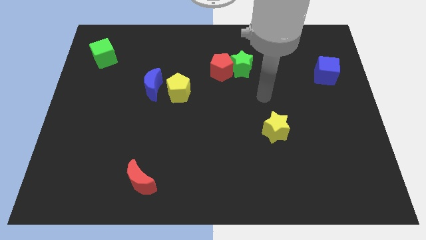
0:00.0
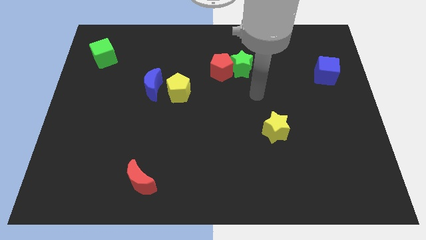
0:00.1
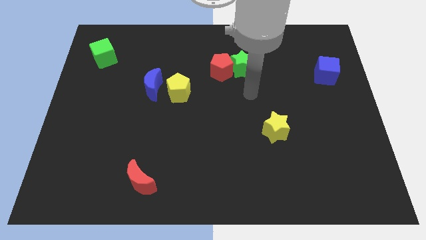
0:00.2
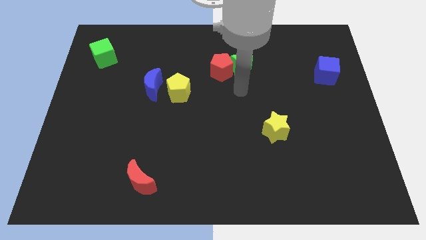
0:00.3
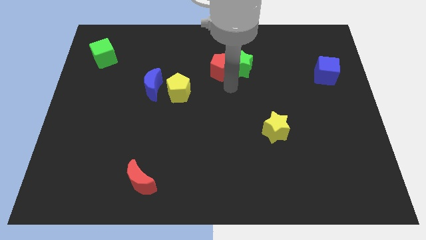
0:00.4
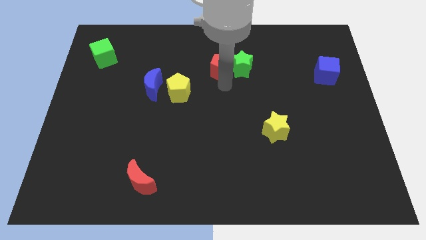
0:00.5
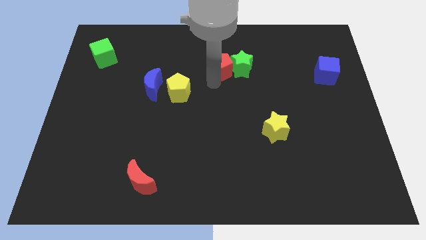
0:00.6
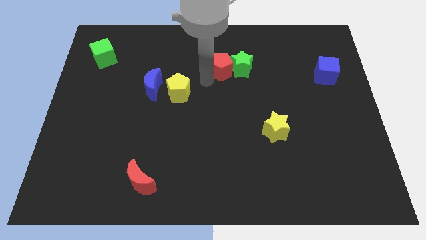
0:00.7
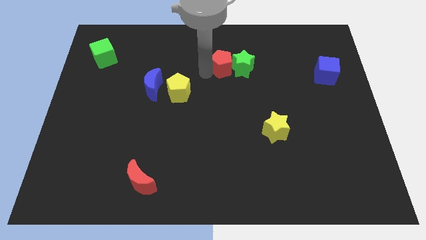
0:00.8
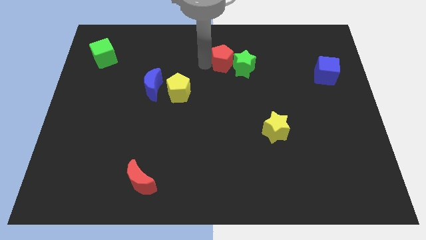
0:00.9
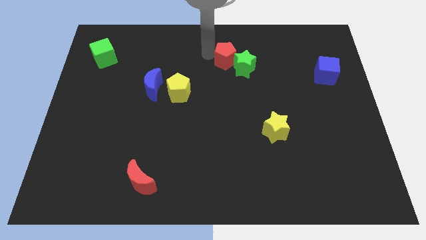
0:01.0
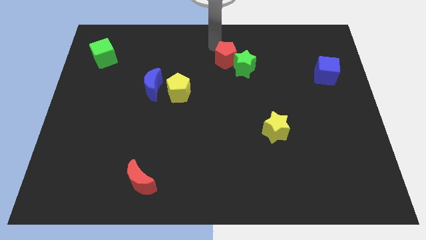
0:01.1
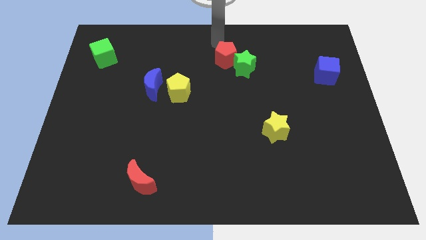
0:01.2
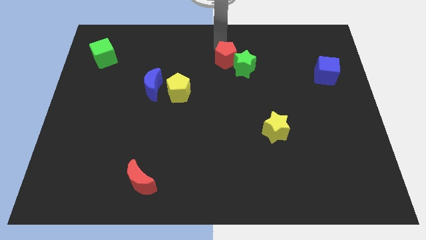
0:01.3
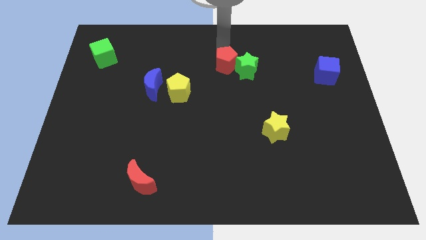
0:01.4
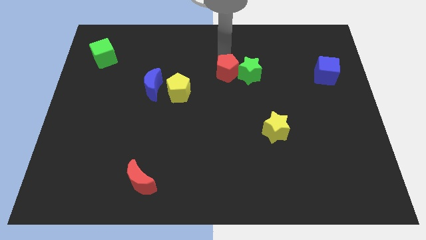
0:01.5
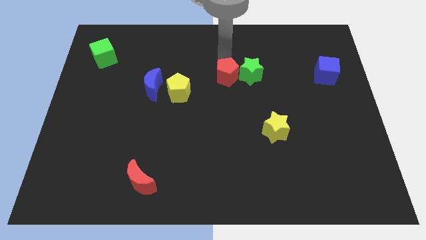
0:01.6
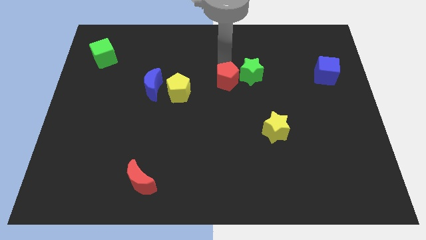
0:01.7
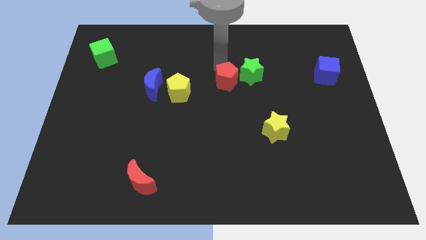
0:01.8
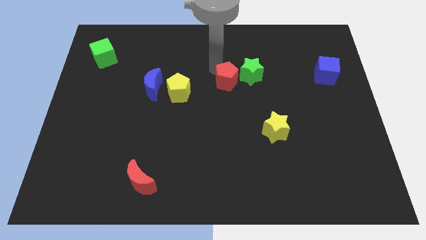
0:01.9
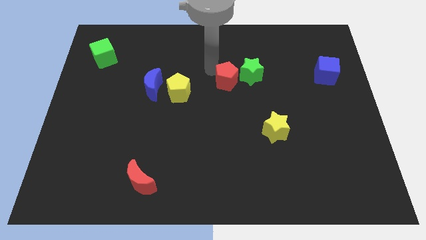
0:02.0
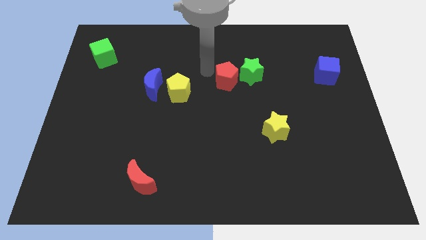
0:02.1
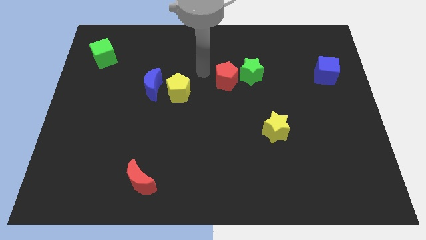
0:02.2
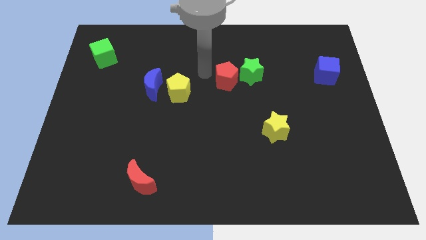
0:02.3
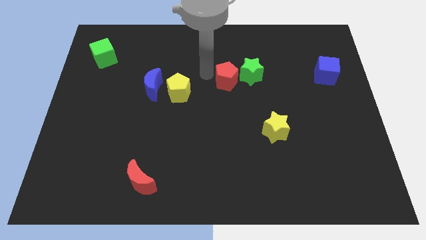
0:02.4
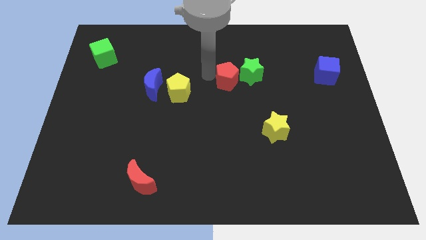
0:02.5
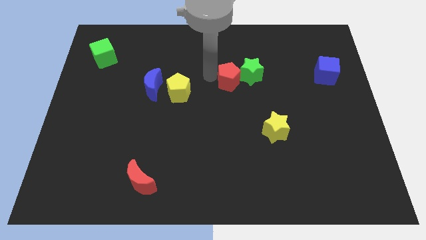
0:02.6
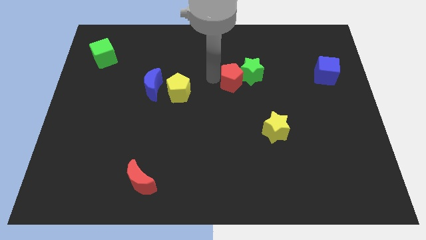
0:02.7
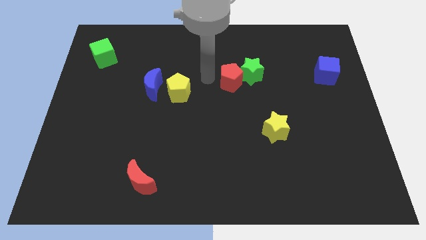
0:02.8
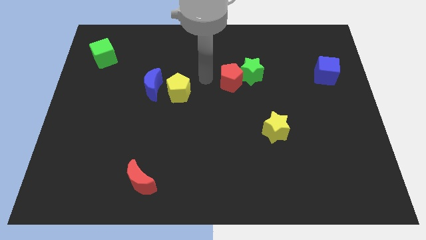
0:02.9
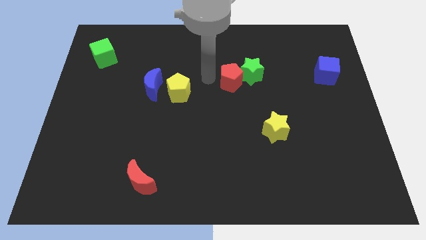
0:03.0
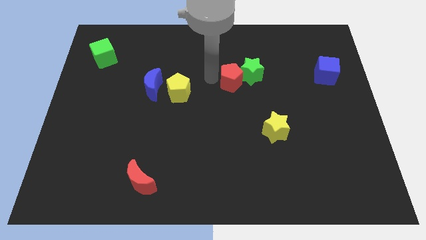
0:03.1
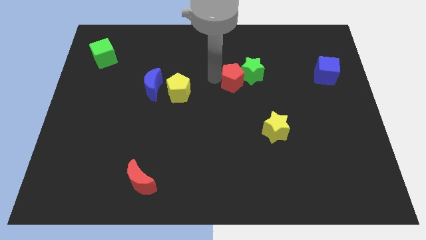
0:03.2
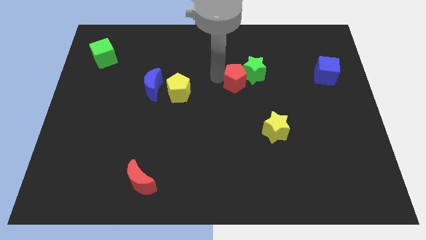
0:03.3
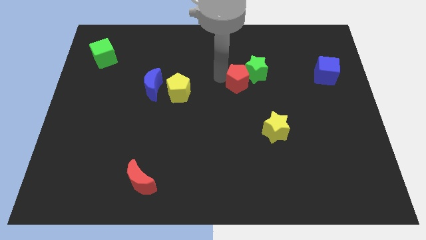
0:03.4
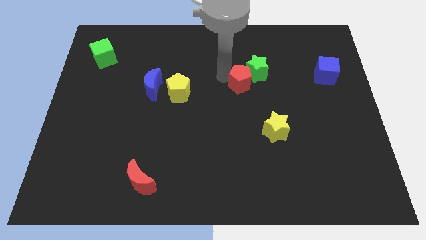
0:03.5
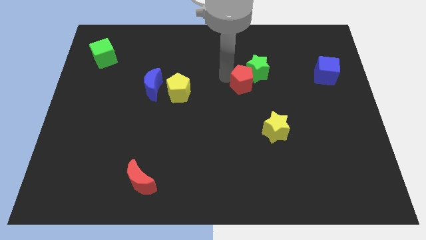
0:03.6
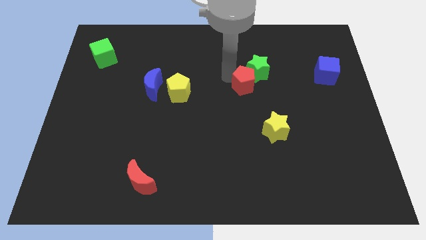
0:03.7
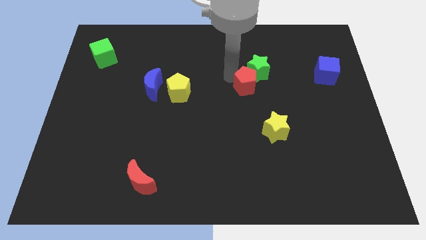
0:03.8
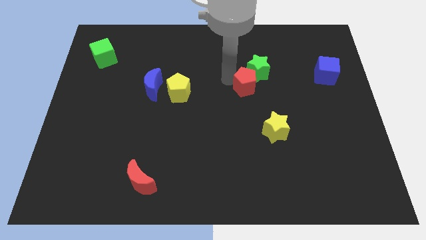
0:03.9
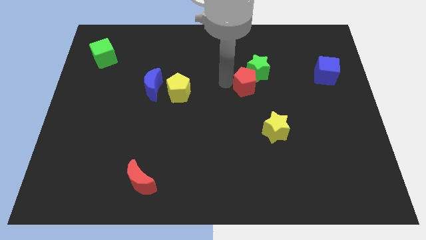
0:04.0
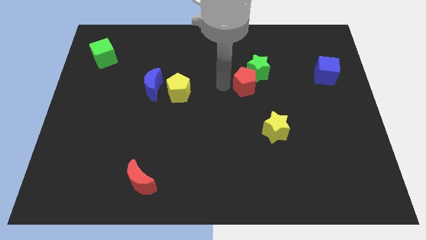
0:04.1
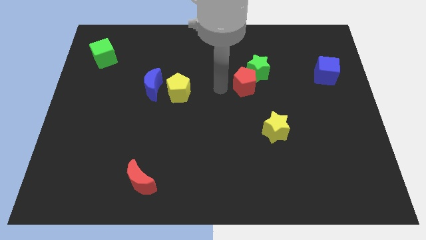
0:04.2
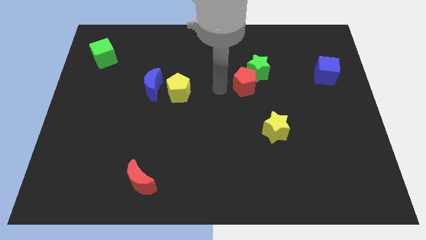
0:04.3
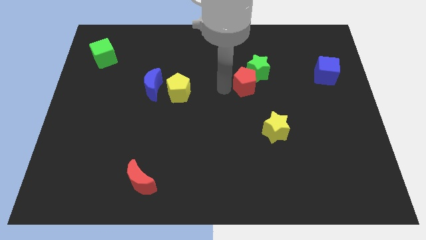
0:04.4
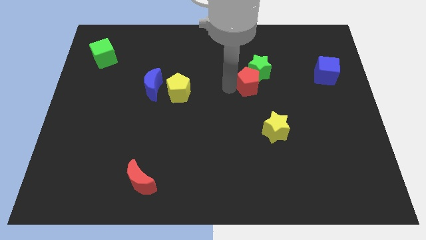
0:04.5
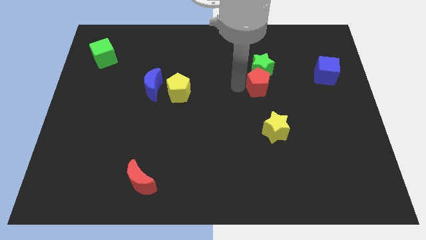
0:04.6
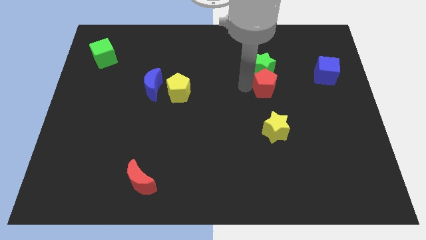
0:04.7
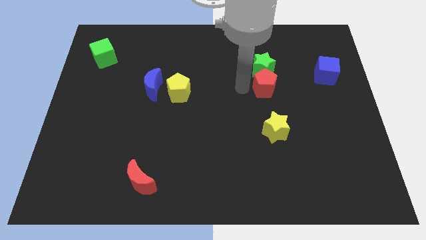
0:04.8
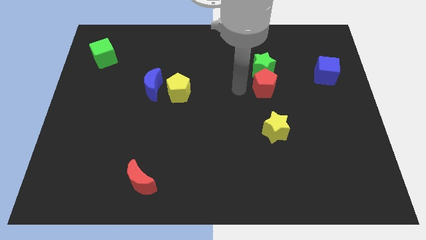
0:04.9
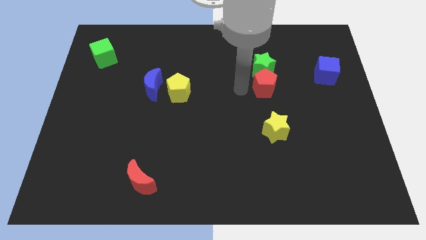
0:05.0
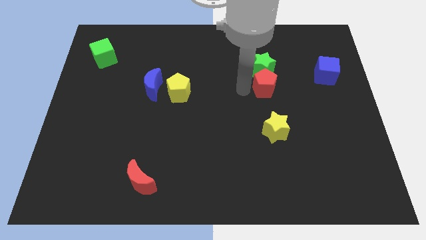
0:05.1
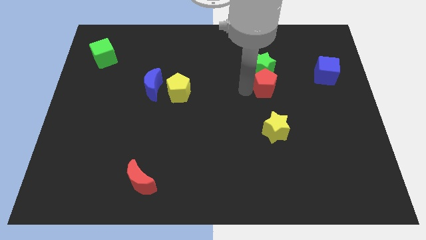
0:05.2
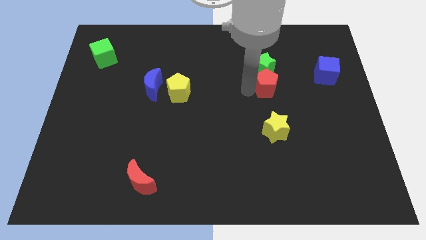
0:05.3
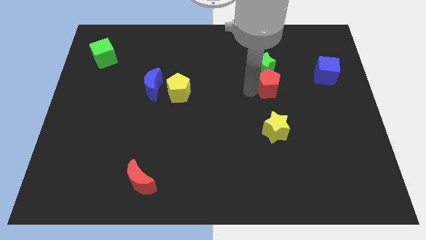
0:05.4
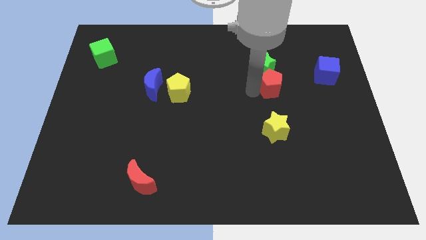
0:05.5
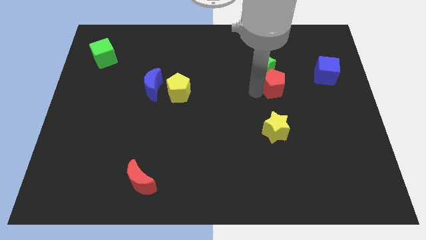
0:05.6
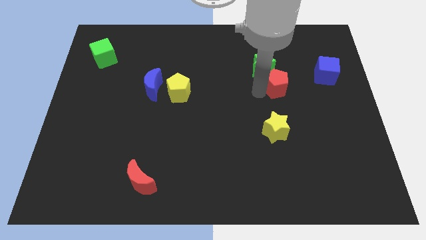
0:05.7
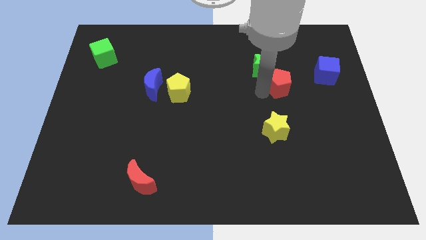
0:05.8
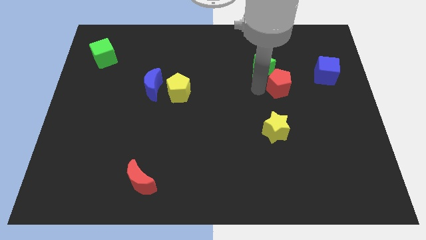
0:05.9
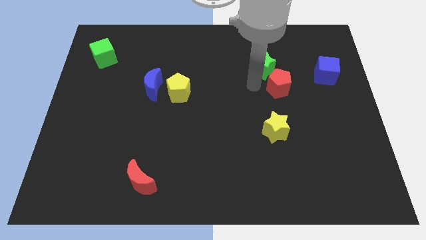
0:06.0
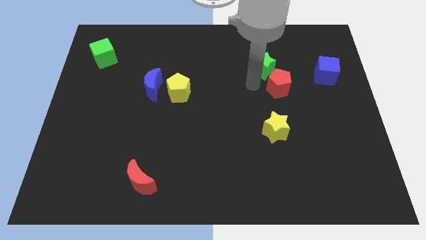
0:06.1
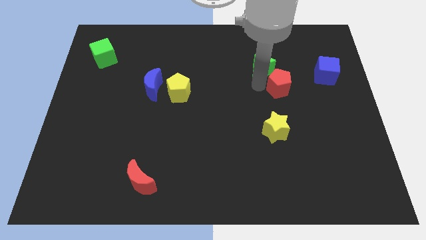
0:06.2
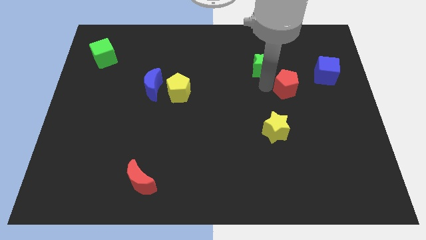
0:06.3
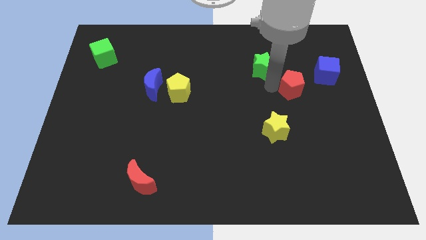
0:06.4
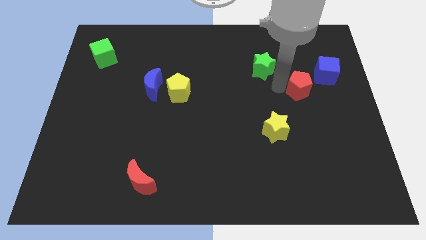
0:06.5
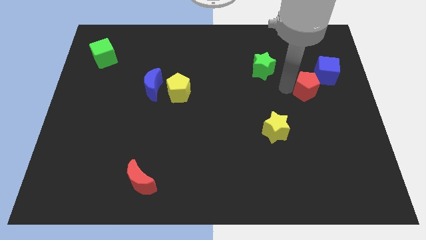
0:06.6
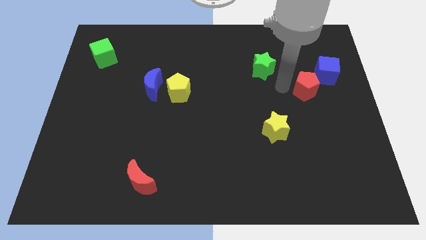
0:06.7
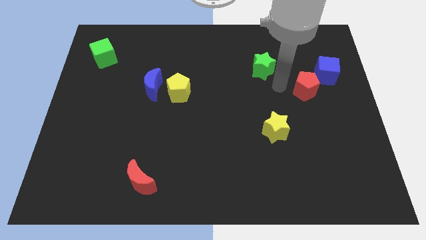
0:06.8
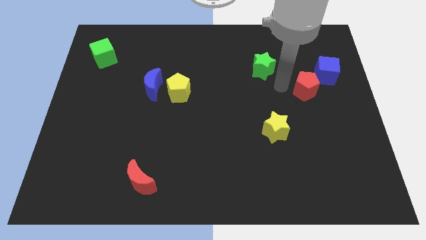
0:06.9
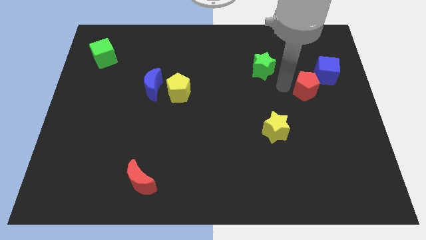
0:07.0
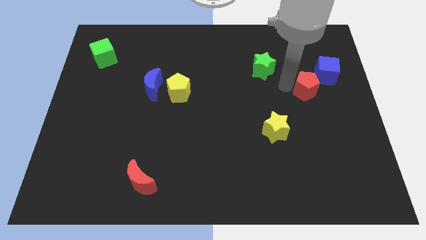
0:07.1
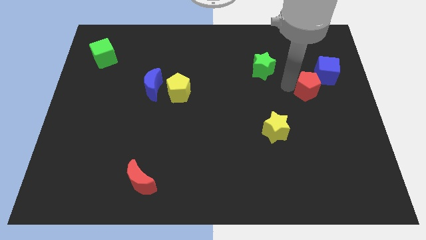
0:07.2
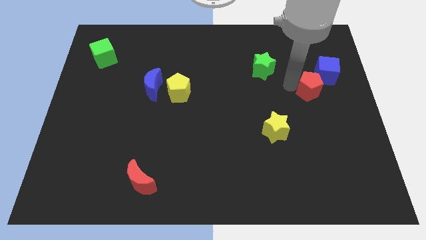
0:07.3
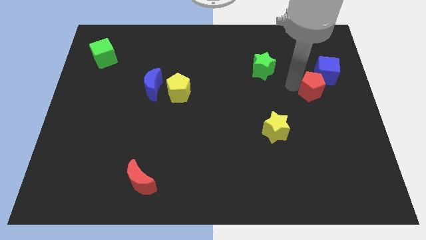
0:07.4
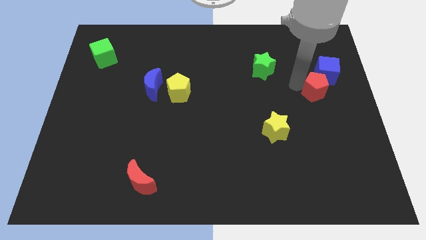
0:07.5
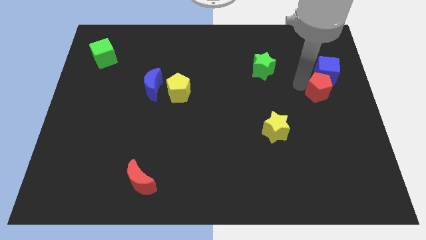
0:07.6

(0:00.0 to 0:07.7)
push the red pentagon to the right side of the board
